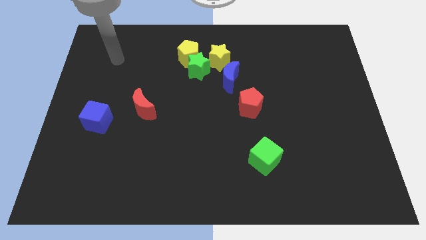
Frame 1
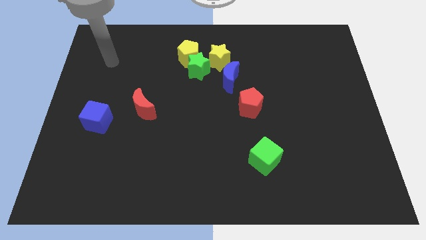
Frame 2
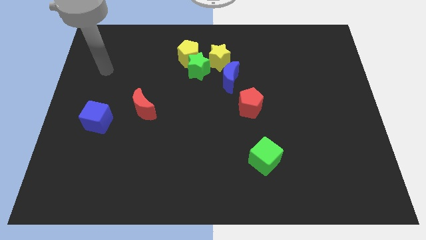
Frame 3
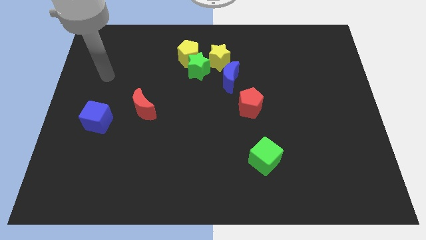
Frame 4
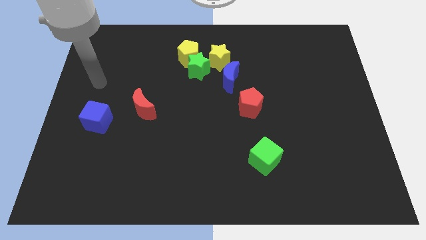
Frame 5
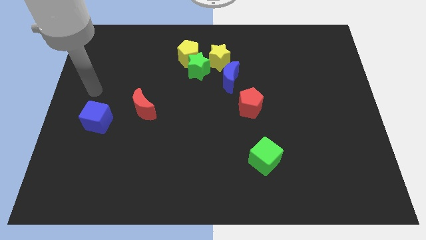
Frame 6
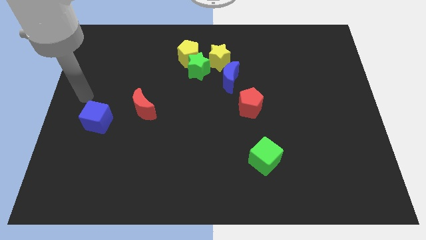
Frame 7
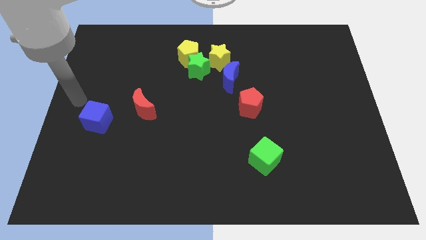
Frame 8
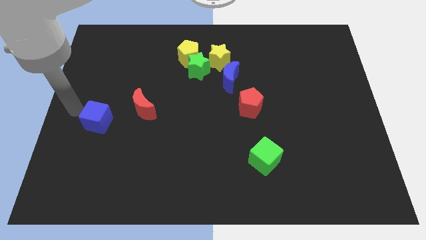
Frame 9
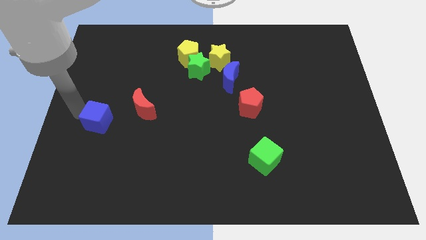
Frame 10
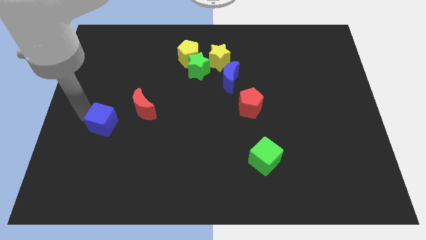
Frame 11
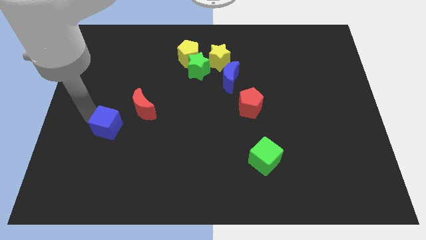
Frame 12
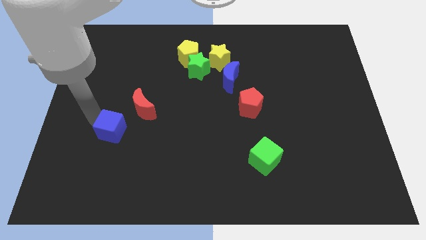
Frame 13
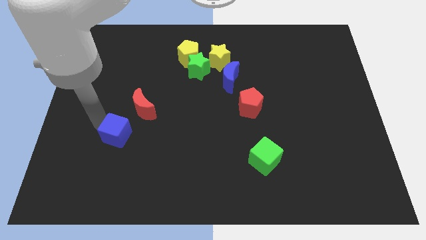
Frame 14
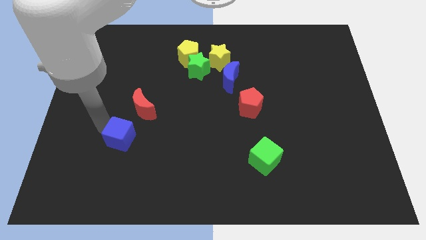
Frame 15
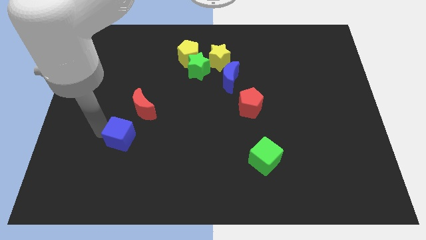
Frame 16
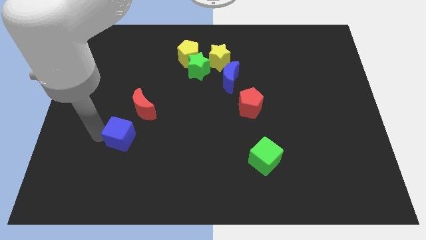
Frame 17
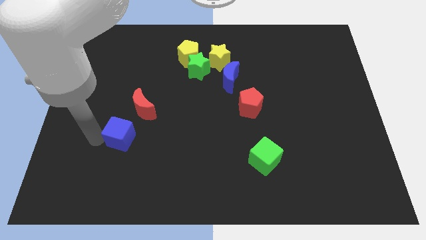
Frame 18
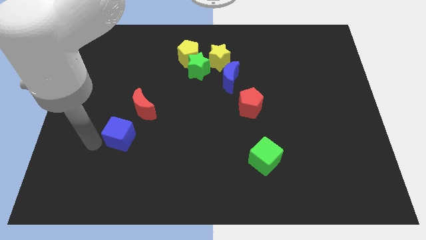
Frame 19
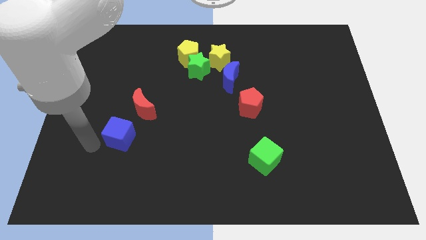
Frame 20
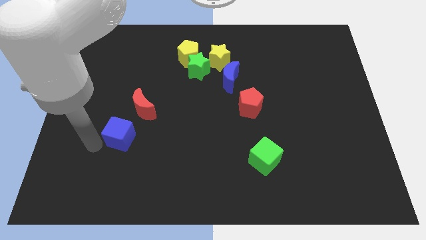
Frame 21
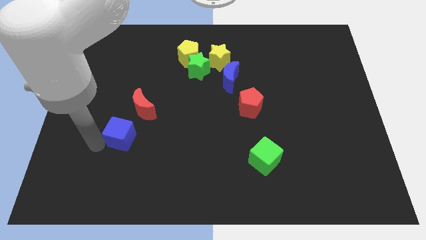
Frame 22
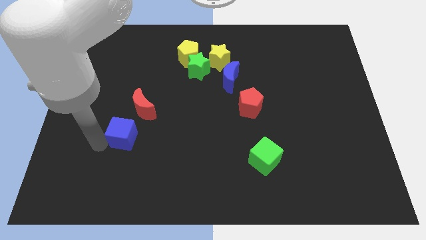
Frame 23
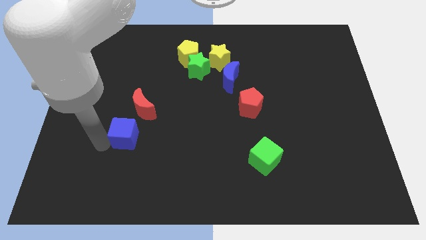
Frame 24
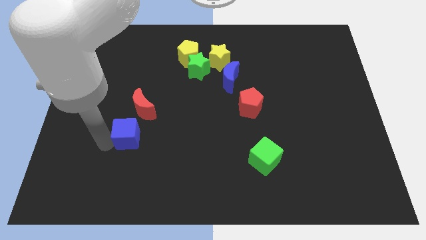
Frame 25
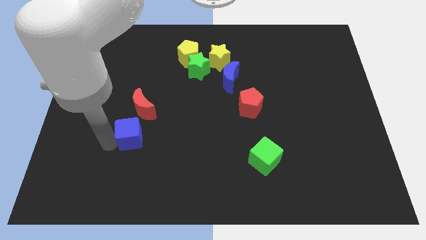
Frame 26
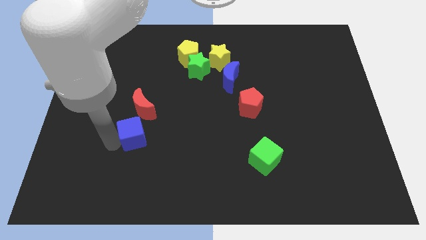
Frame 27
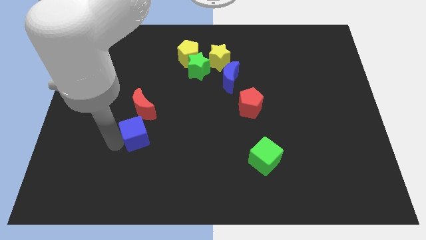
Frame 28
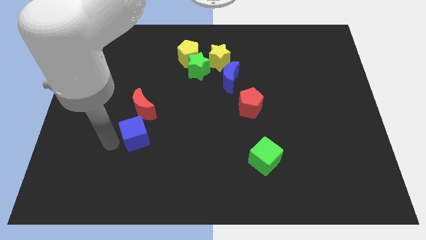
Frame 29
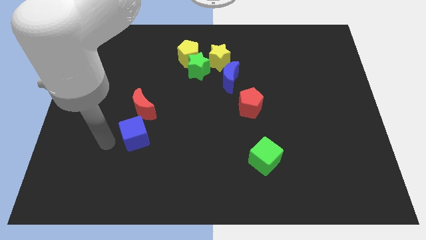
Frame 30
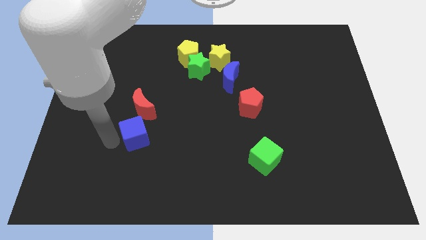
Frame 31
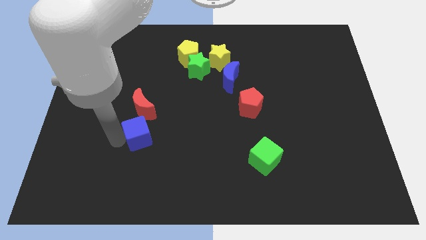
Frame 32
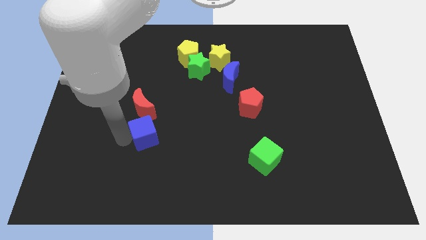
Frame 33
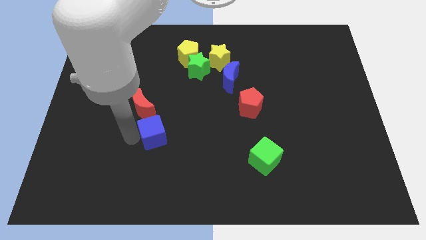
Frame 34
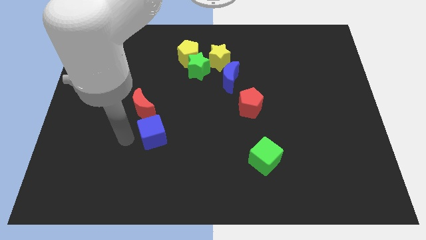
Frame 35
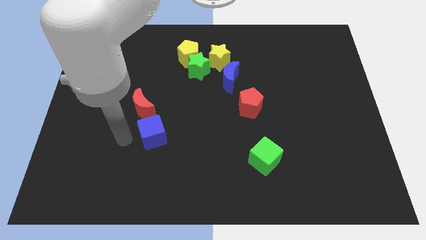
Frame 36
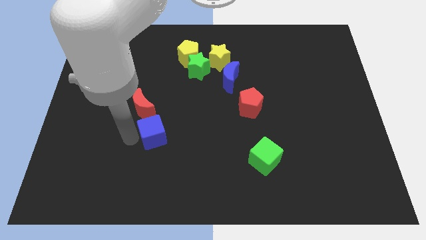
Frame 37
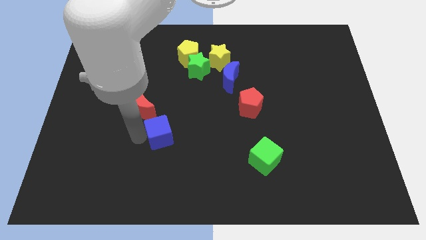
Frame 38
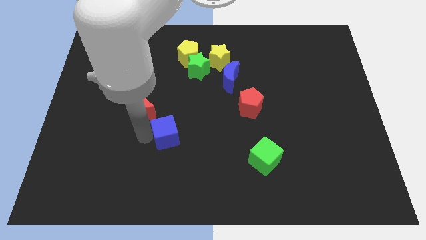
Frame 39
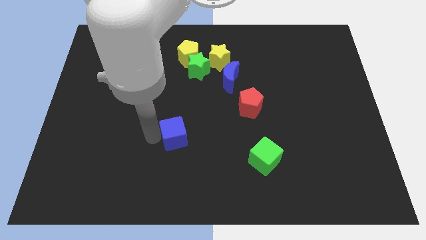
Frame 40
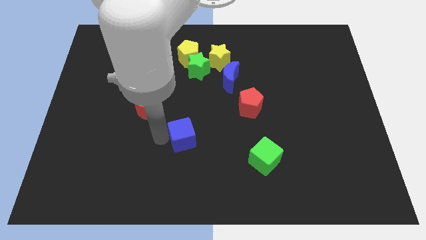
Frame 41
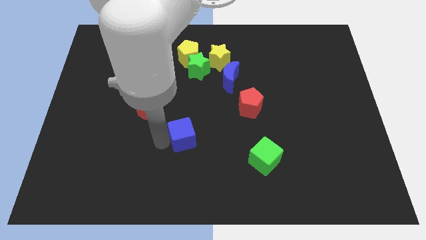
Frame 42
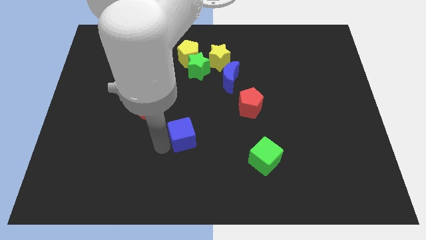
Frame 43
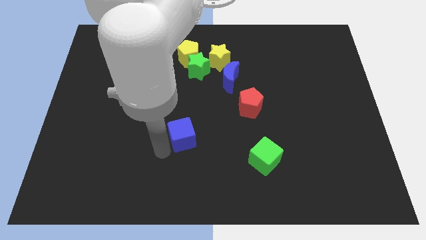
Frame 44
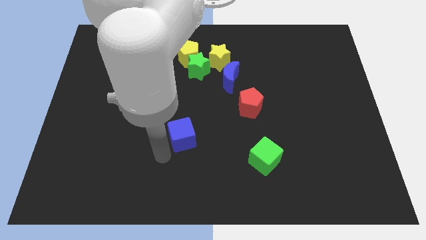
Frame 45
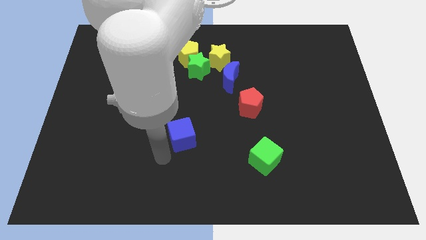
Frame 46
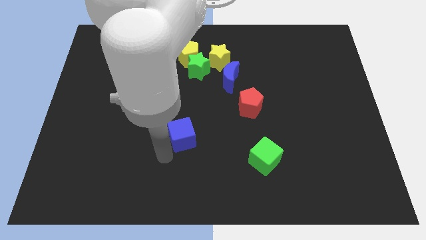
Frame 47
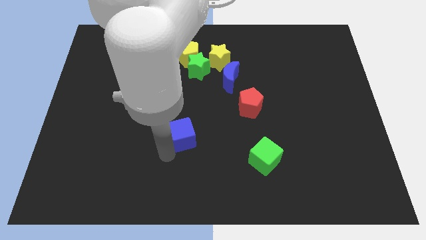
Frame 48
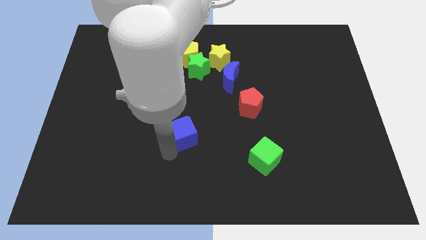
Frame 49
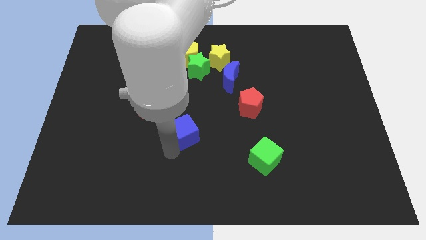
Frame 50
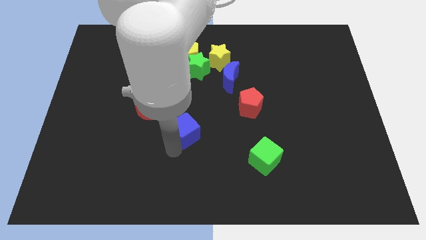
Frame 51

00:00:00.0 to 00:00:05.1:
push the blue cube to the right

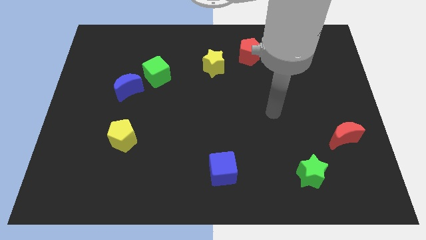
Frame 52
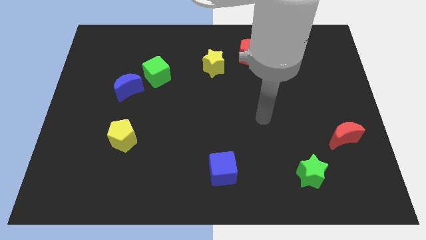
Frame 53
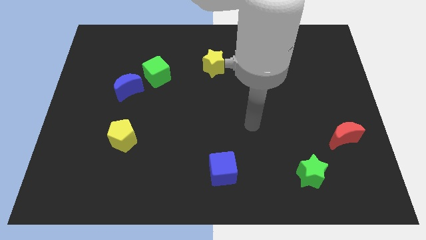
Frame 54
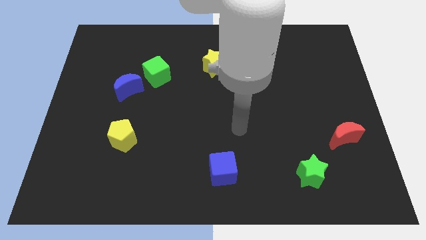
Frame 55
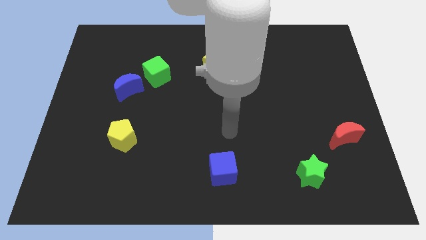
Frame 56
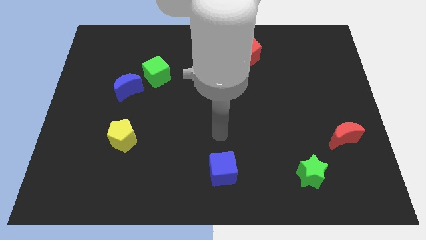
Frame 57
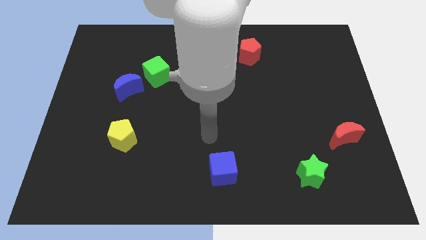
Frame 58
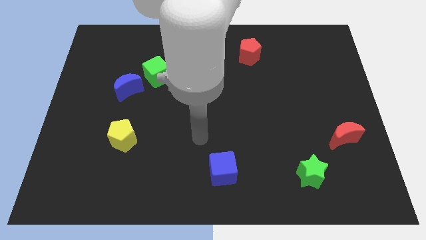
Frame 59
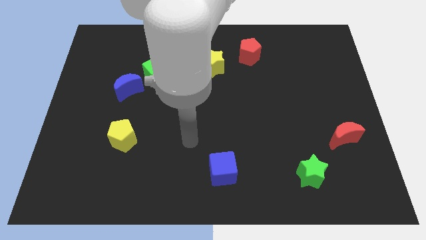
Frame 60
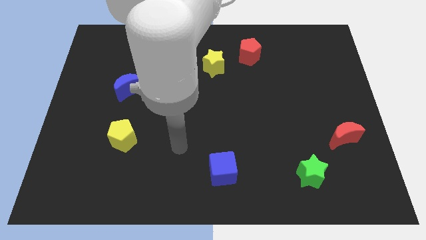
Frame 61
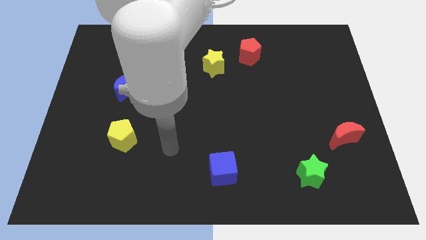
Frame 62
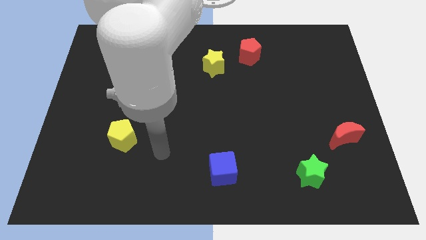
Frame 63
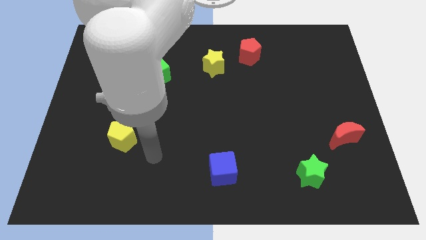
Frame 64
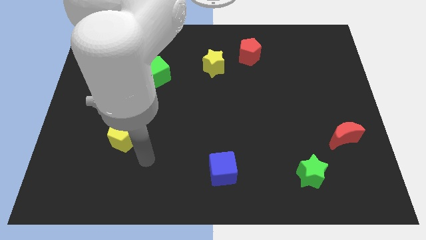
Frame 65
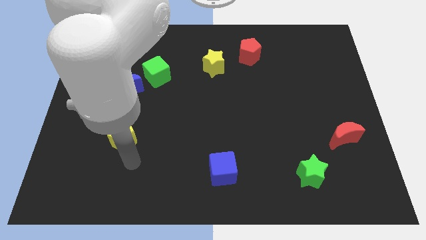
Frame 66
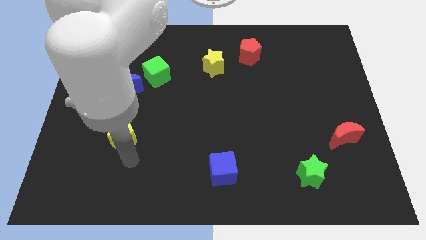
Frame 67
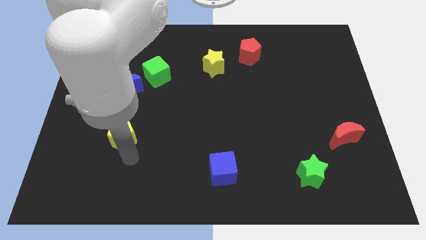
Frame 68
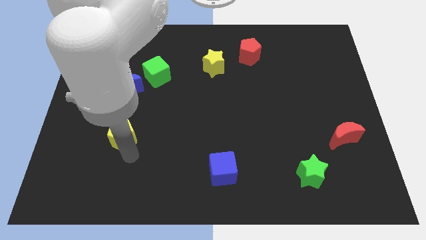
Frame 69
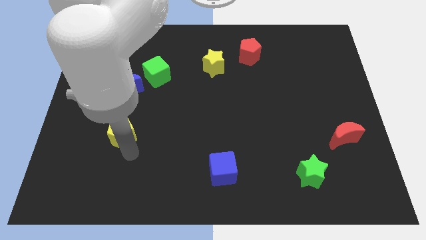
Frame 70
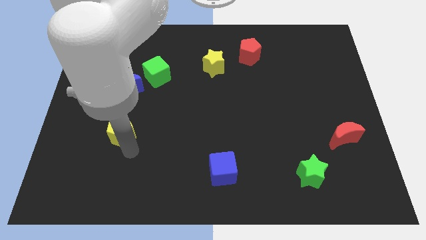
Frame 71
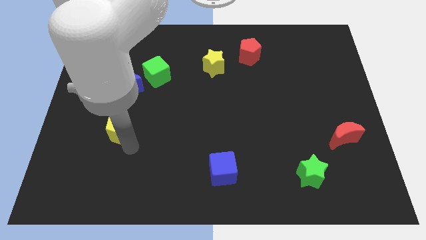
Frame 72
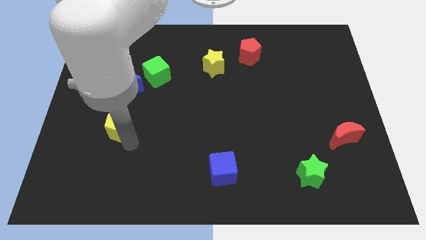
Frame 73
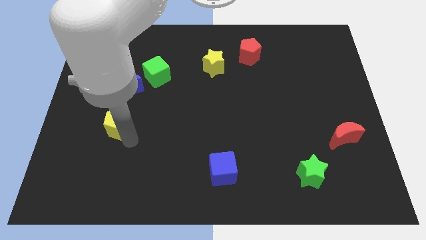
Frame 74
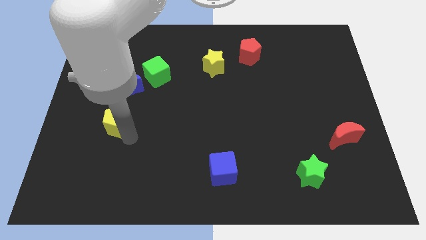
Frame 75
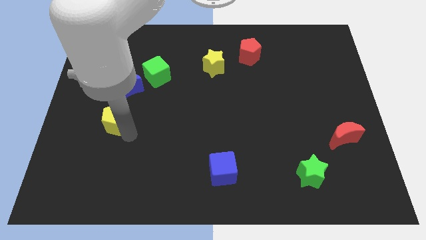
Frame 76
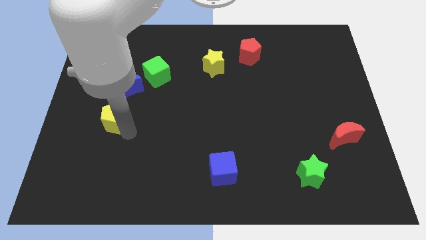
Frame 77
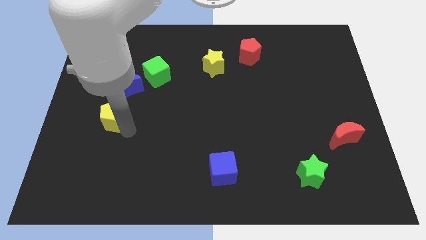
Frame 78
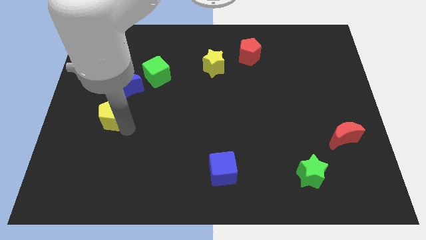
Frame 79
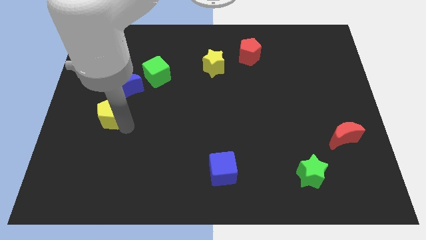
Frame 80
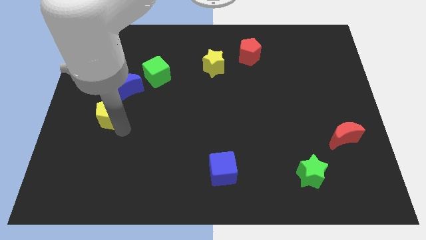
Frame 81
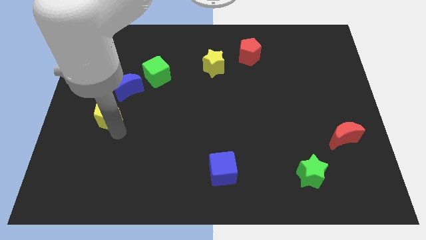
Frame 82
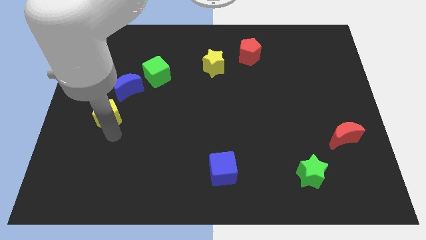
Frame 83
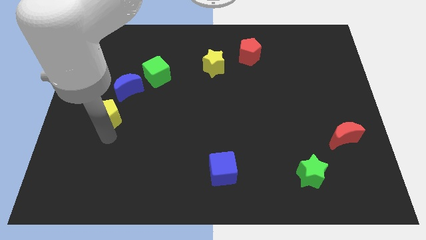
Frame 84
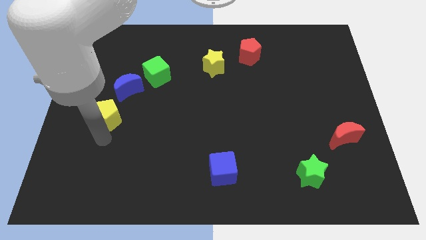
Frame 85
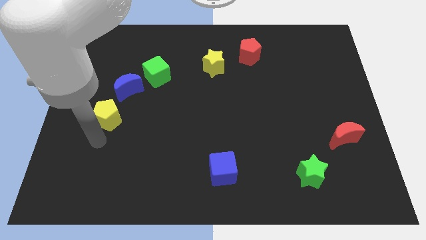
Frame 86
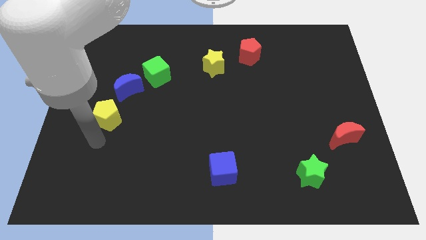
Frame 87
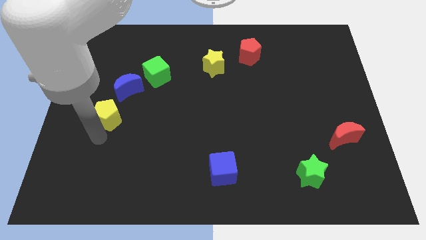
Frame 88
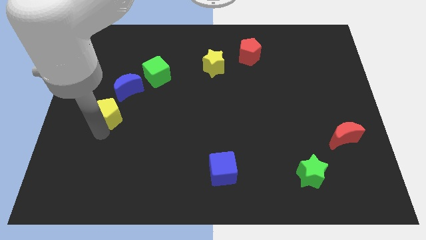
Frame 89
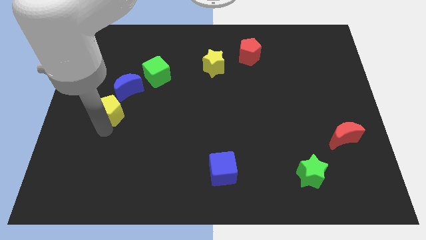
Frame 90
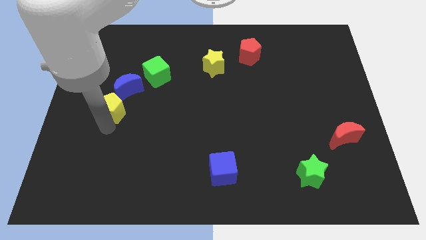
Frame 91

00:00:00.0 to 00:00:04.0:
slightly slide the yellow pentagon upwards
